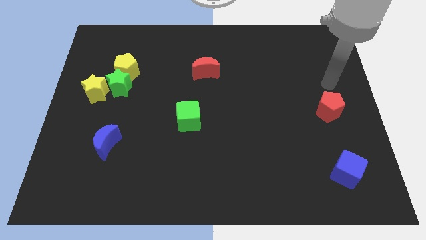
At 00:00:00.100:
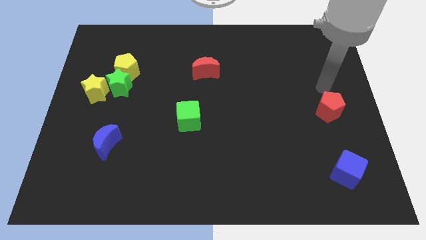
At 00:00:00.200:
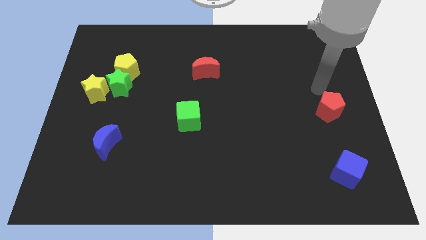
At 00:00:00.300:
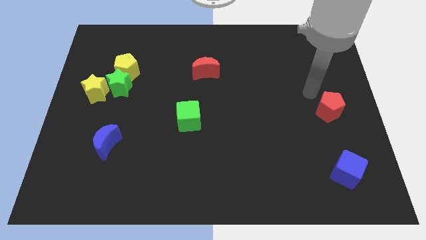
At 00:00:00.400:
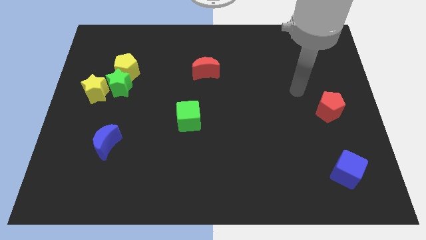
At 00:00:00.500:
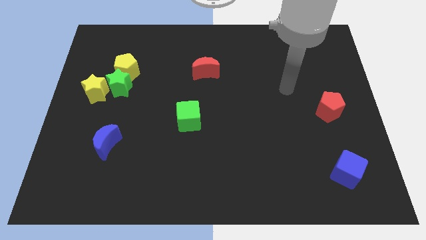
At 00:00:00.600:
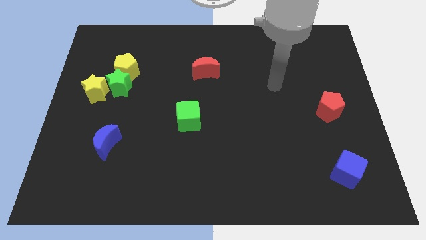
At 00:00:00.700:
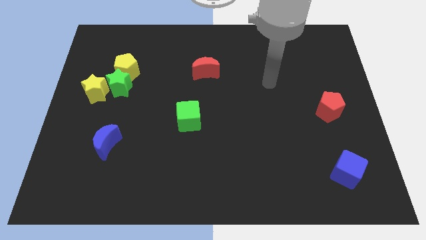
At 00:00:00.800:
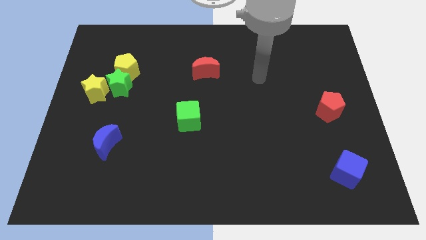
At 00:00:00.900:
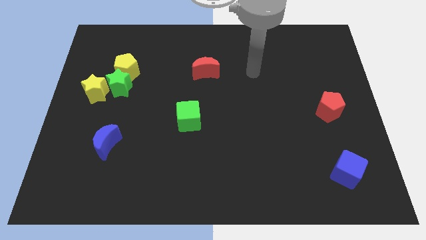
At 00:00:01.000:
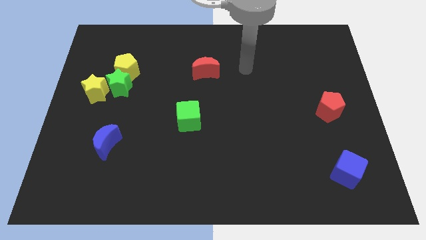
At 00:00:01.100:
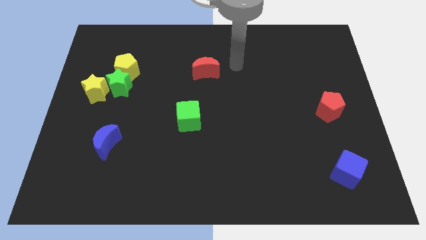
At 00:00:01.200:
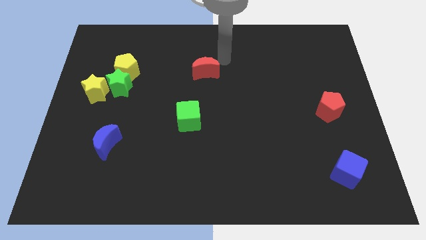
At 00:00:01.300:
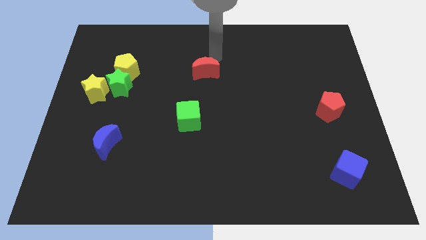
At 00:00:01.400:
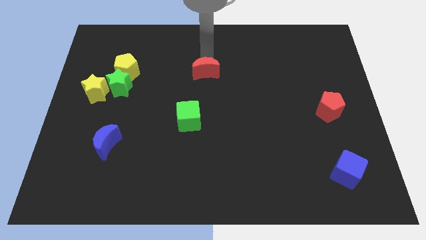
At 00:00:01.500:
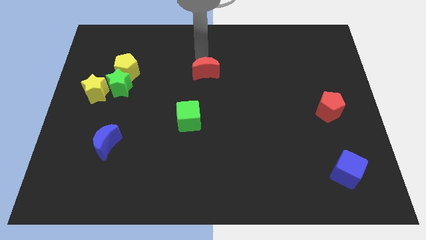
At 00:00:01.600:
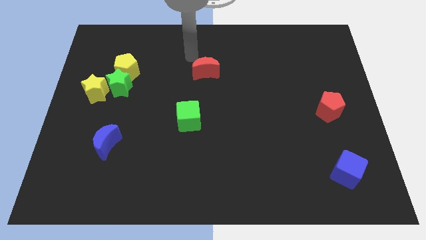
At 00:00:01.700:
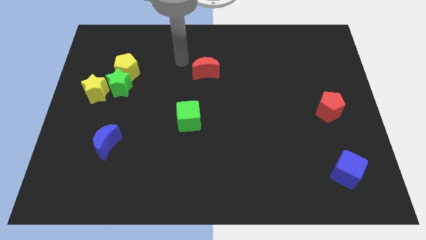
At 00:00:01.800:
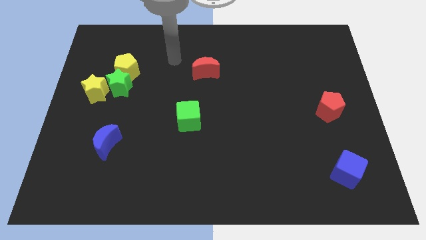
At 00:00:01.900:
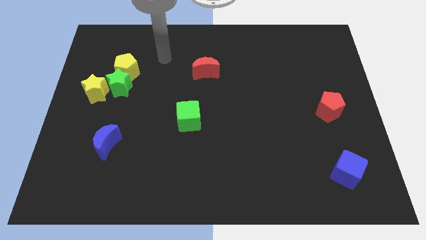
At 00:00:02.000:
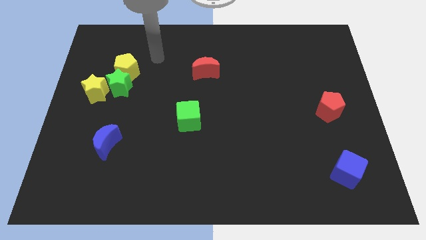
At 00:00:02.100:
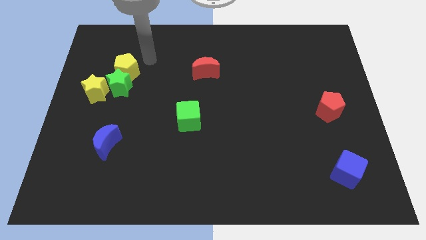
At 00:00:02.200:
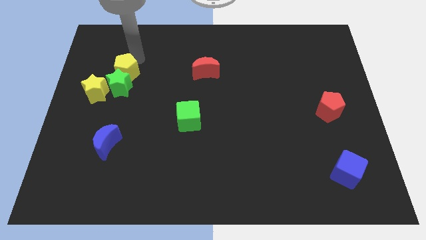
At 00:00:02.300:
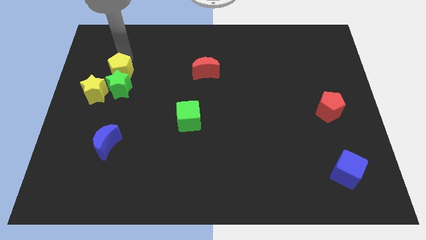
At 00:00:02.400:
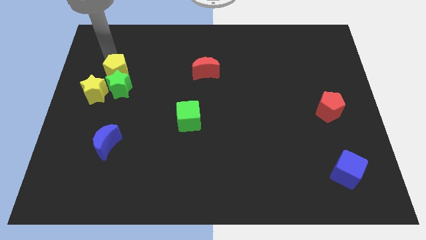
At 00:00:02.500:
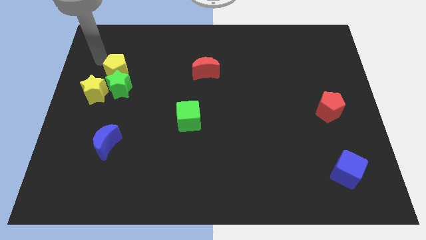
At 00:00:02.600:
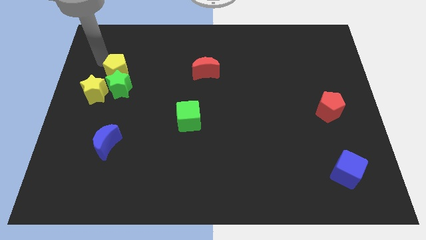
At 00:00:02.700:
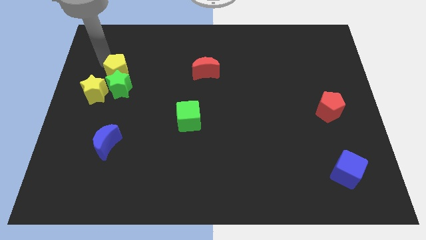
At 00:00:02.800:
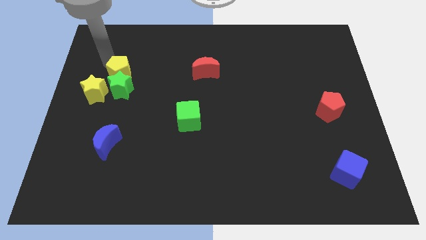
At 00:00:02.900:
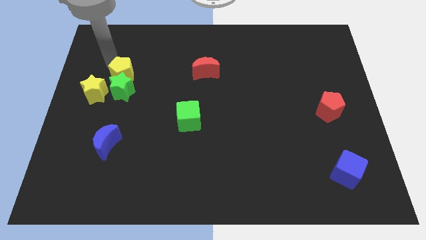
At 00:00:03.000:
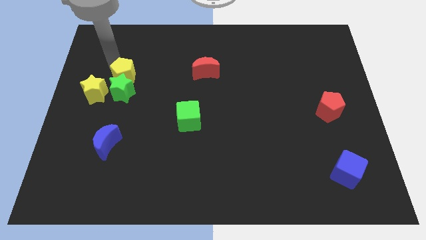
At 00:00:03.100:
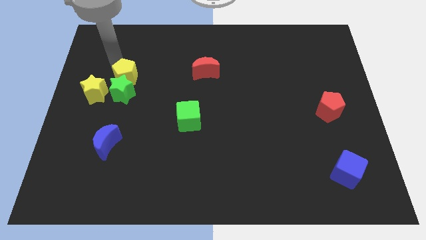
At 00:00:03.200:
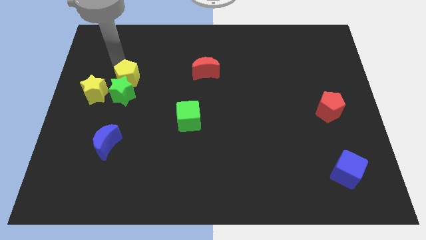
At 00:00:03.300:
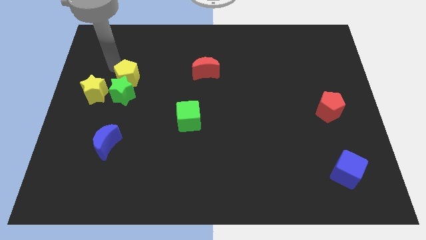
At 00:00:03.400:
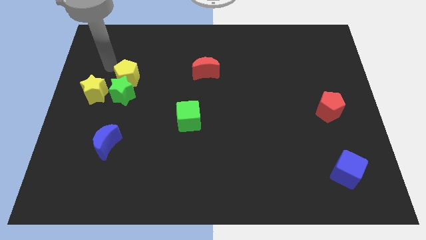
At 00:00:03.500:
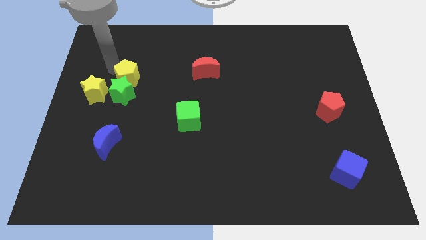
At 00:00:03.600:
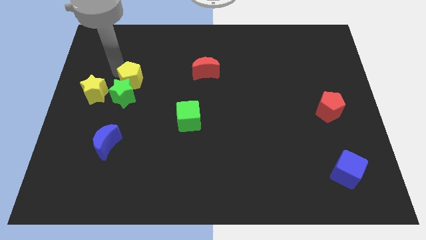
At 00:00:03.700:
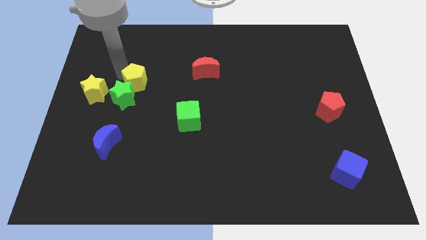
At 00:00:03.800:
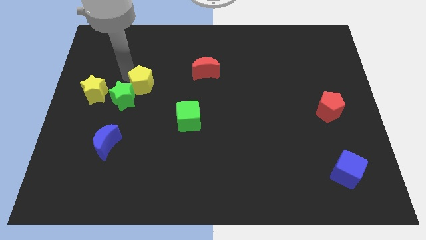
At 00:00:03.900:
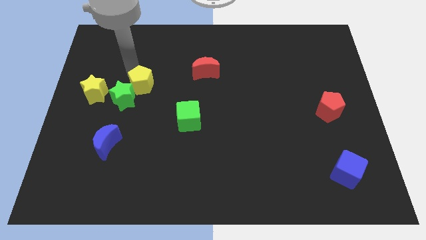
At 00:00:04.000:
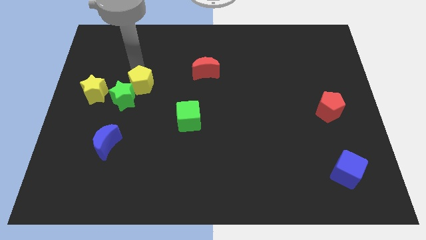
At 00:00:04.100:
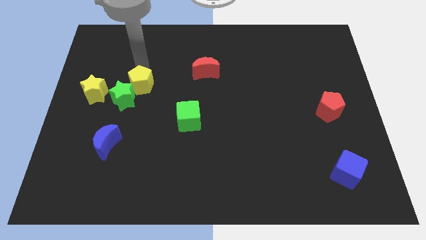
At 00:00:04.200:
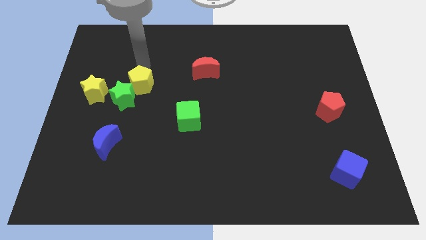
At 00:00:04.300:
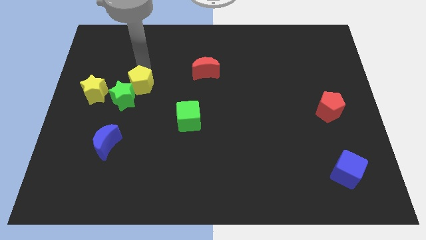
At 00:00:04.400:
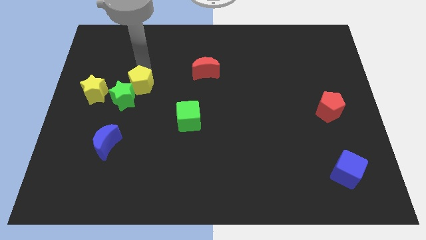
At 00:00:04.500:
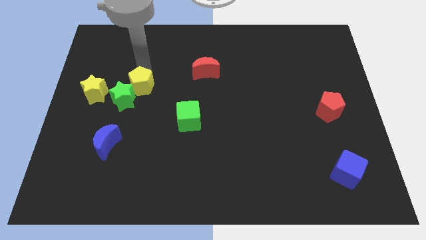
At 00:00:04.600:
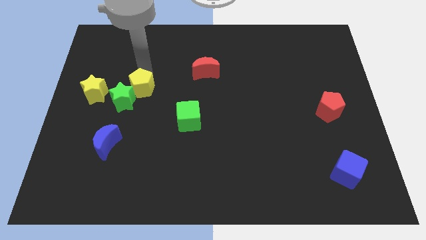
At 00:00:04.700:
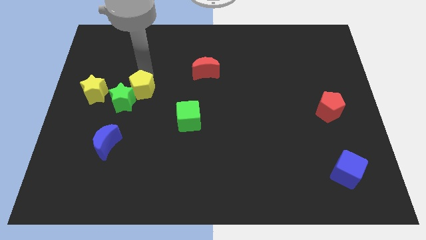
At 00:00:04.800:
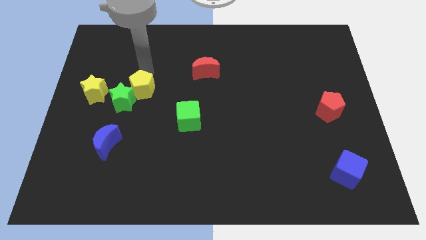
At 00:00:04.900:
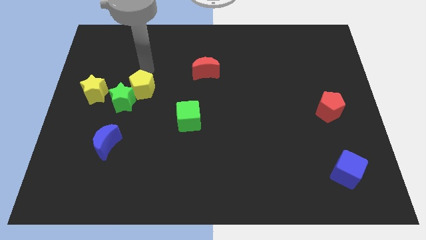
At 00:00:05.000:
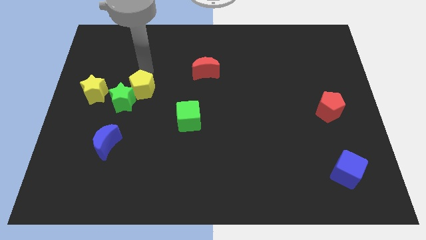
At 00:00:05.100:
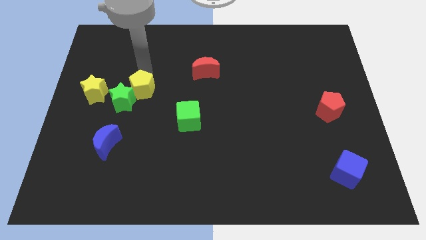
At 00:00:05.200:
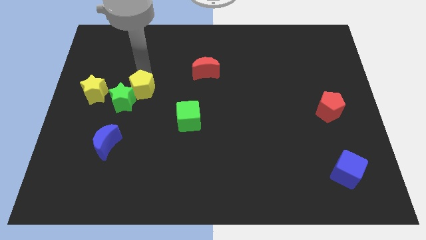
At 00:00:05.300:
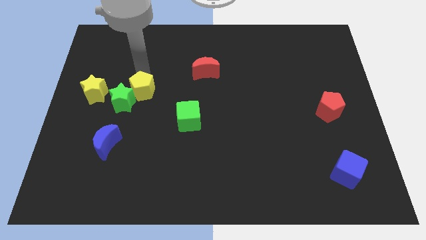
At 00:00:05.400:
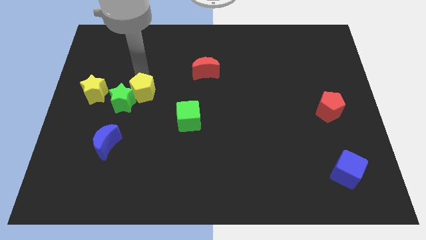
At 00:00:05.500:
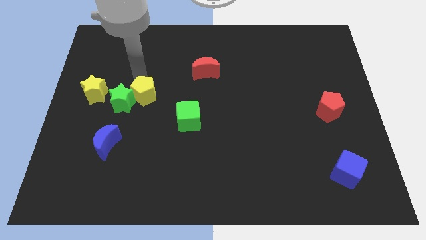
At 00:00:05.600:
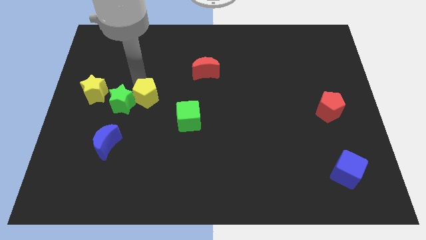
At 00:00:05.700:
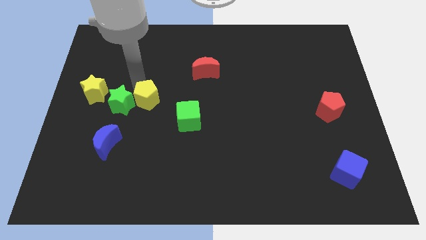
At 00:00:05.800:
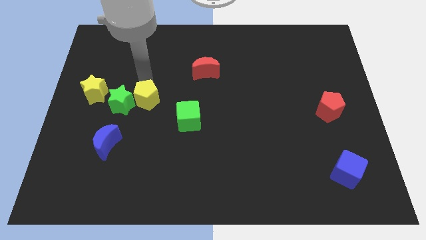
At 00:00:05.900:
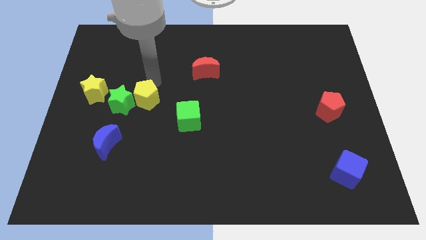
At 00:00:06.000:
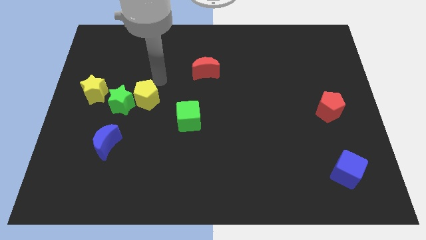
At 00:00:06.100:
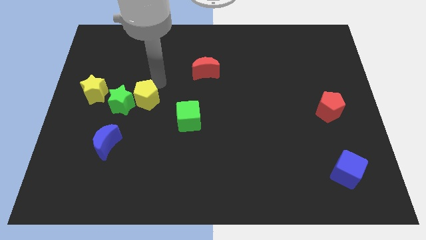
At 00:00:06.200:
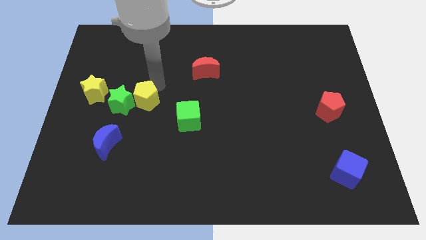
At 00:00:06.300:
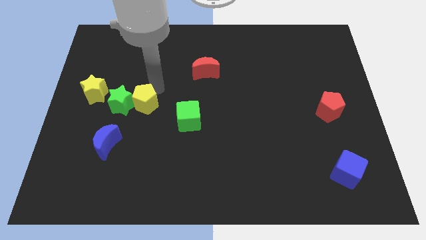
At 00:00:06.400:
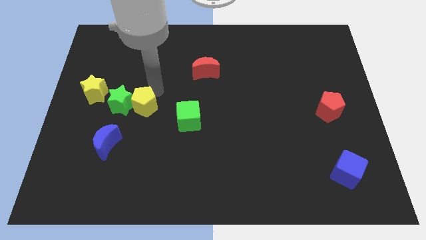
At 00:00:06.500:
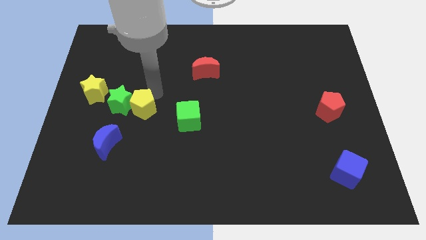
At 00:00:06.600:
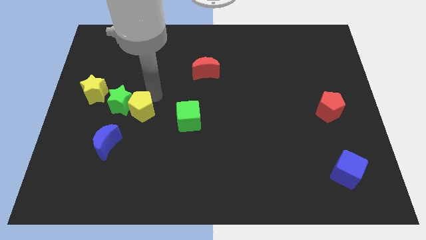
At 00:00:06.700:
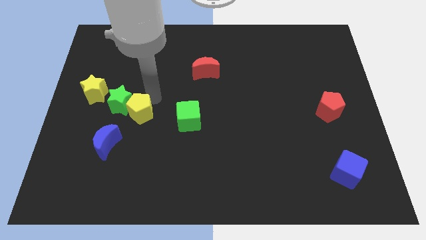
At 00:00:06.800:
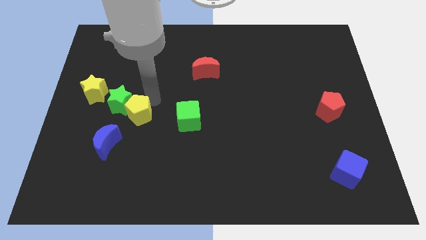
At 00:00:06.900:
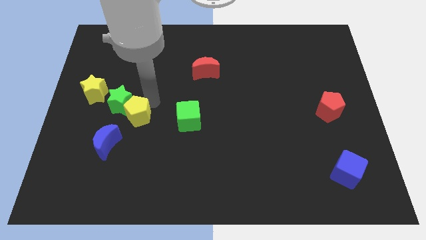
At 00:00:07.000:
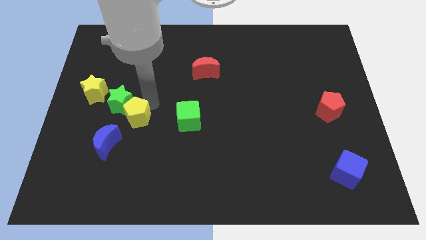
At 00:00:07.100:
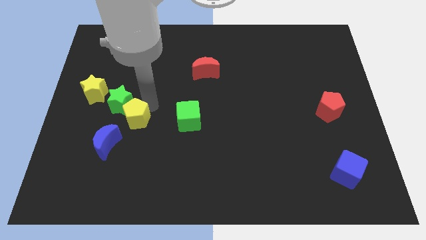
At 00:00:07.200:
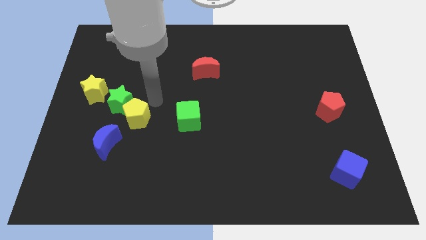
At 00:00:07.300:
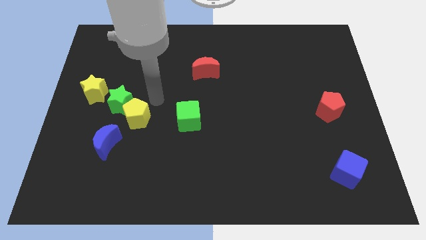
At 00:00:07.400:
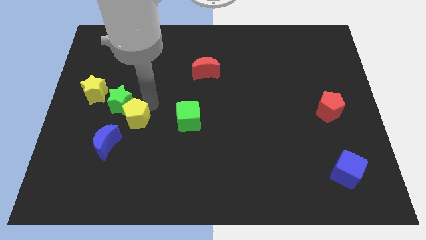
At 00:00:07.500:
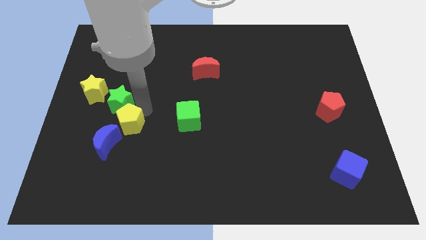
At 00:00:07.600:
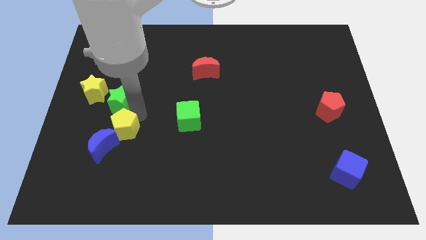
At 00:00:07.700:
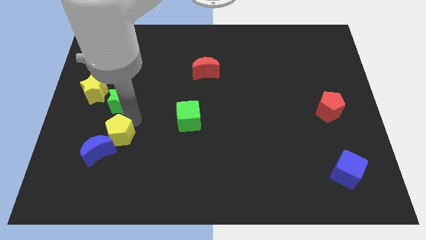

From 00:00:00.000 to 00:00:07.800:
slide the yellow pentagon next to the blue moon

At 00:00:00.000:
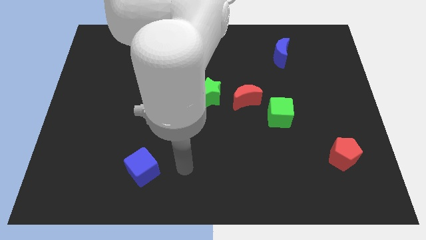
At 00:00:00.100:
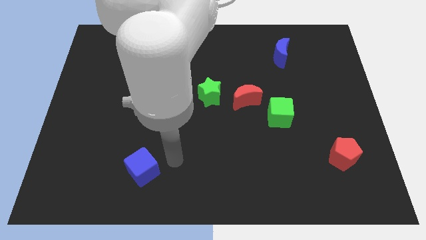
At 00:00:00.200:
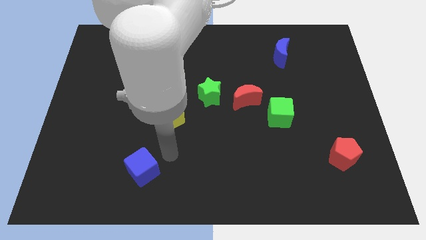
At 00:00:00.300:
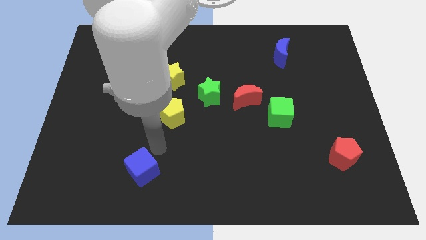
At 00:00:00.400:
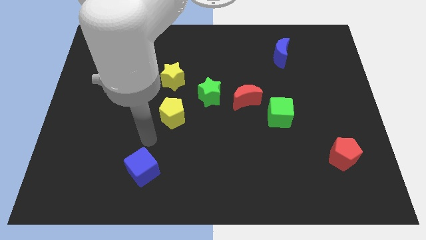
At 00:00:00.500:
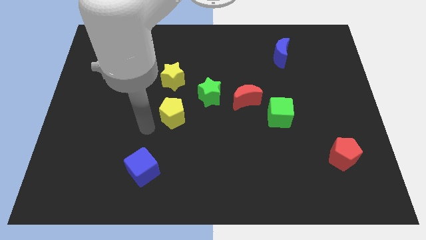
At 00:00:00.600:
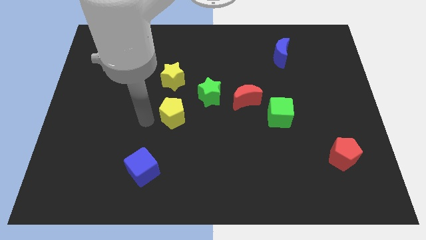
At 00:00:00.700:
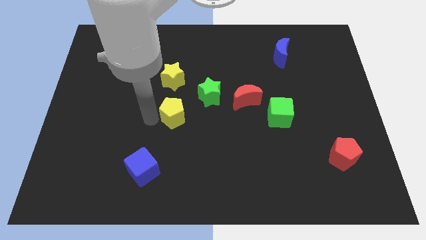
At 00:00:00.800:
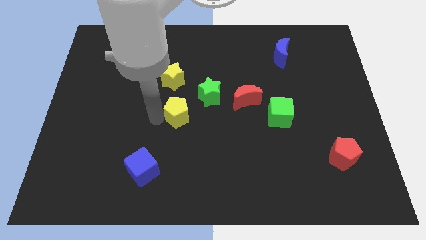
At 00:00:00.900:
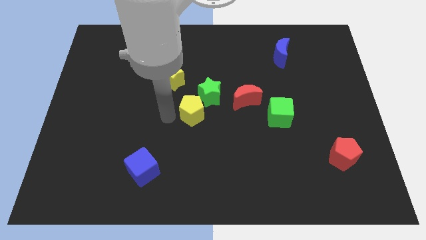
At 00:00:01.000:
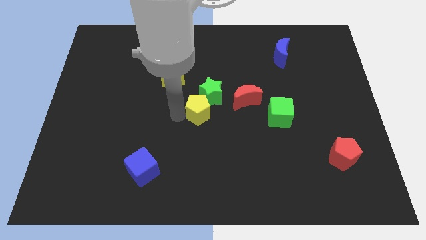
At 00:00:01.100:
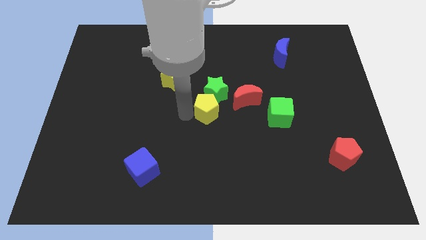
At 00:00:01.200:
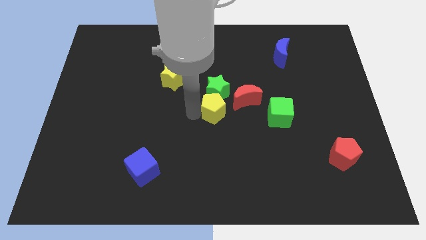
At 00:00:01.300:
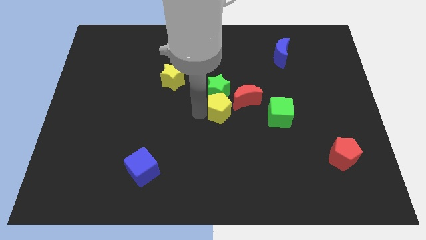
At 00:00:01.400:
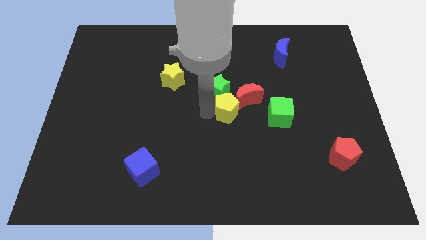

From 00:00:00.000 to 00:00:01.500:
move the yellow pentagon next to the red moon
